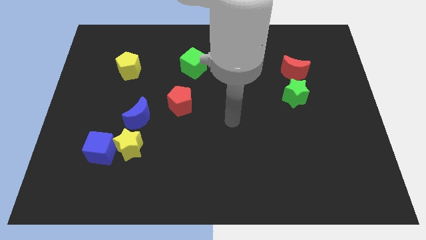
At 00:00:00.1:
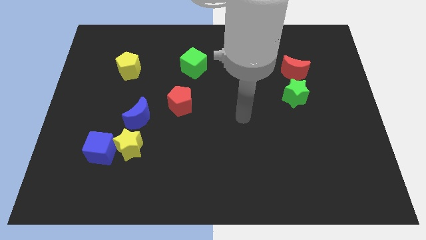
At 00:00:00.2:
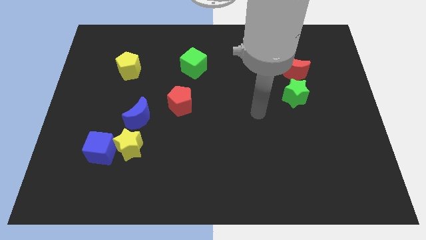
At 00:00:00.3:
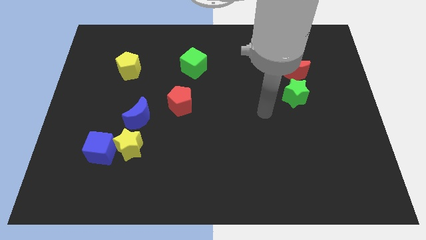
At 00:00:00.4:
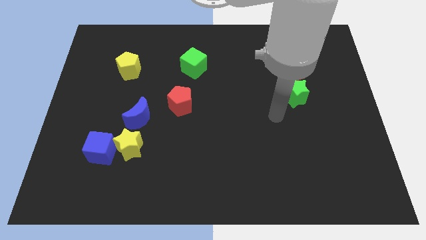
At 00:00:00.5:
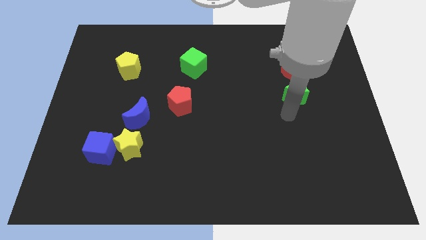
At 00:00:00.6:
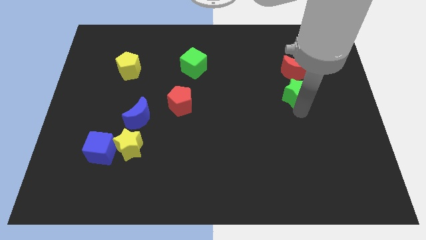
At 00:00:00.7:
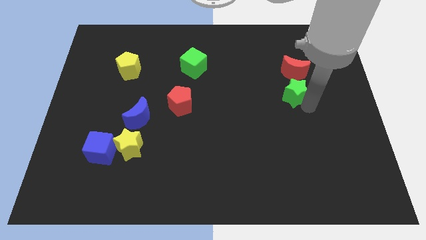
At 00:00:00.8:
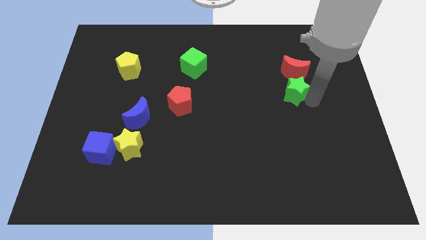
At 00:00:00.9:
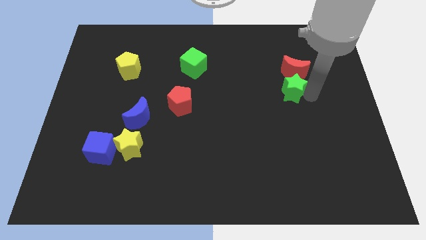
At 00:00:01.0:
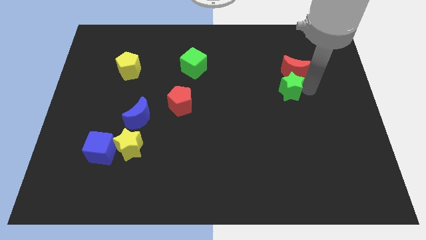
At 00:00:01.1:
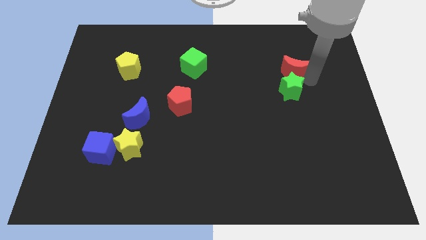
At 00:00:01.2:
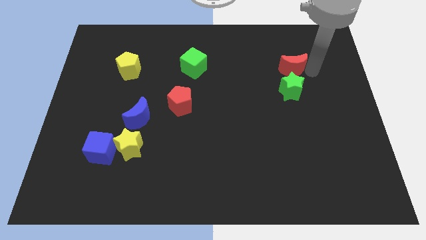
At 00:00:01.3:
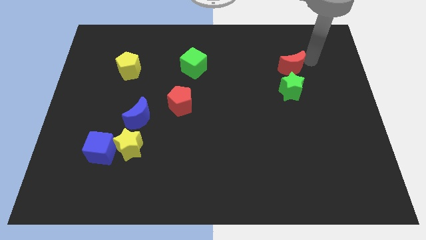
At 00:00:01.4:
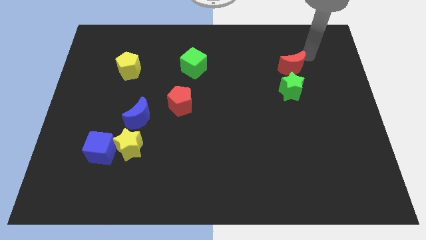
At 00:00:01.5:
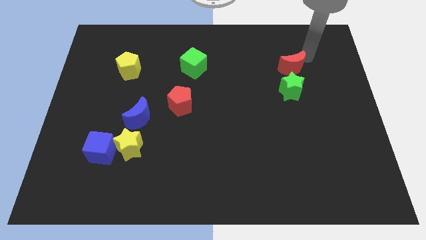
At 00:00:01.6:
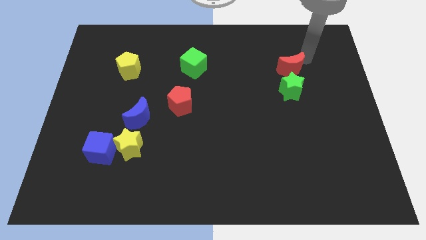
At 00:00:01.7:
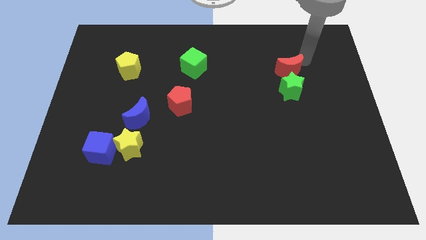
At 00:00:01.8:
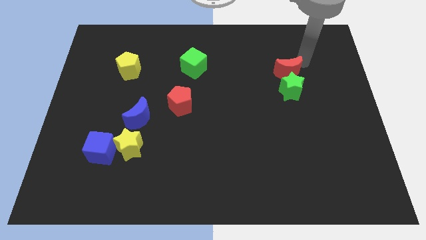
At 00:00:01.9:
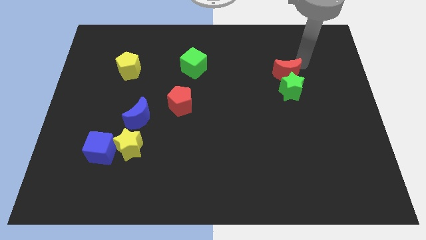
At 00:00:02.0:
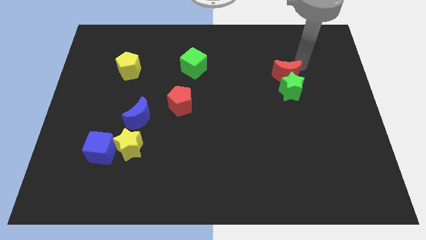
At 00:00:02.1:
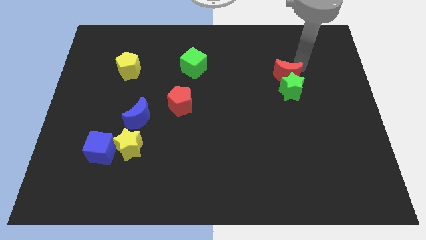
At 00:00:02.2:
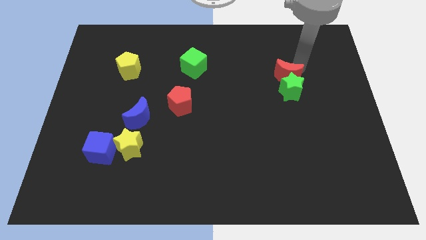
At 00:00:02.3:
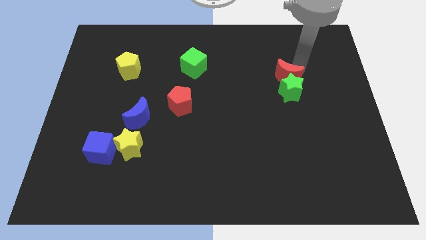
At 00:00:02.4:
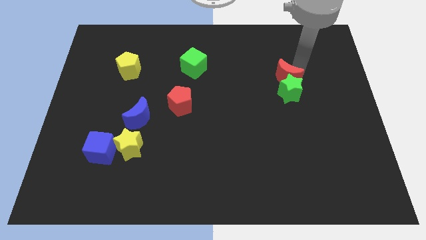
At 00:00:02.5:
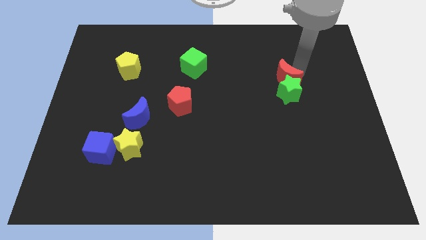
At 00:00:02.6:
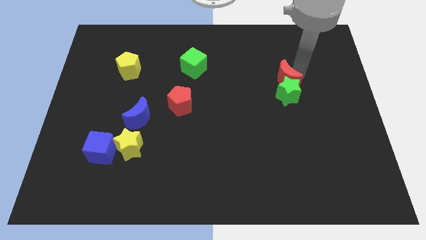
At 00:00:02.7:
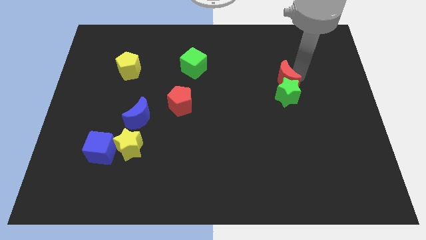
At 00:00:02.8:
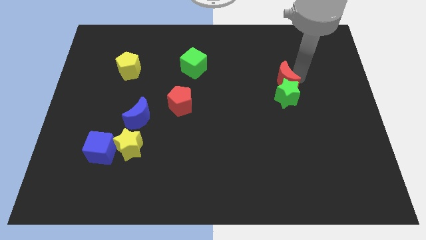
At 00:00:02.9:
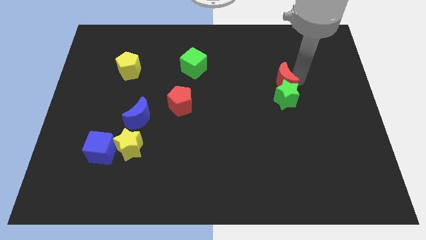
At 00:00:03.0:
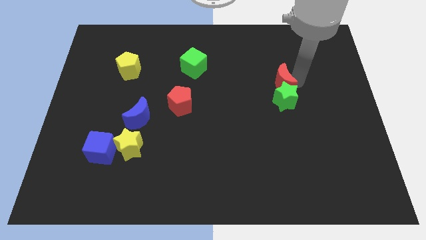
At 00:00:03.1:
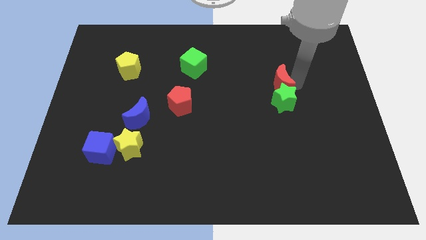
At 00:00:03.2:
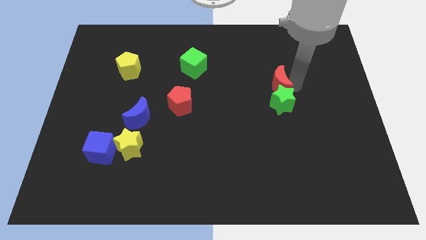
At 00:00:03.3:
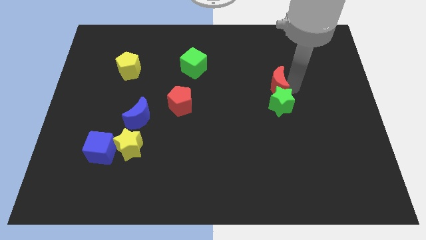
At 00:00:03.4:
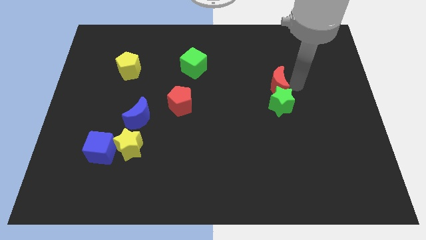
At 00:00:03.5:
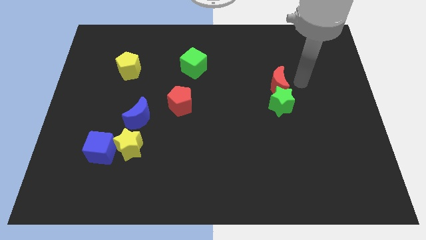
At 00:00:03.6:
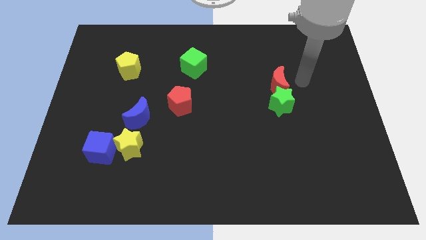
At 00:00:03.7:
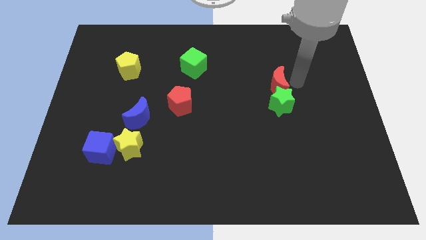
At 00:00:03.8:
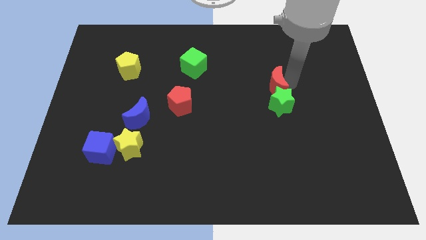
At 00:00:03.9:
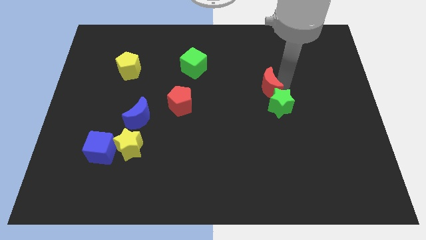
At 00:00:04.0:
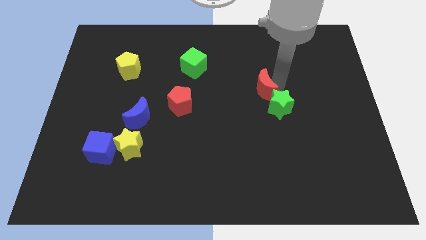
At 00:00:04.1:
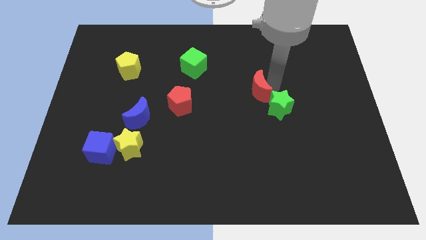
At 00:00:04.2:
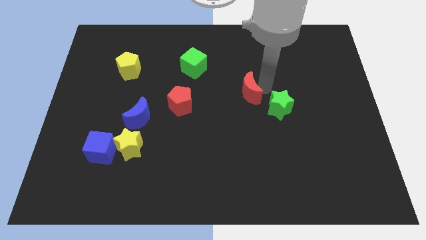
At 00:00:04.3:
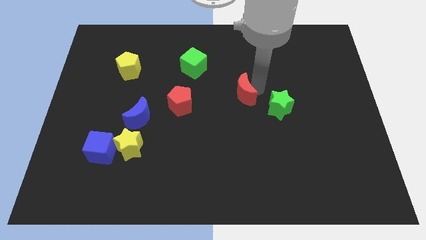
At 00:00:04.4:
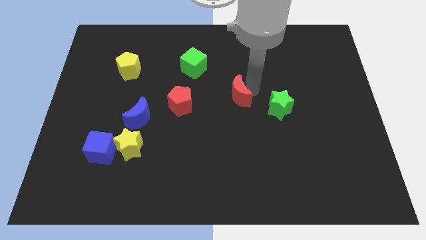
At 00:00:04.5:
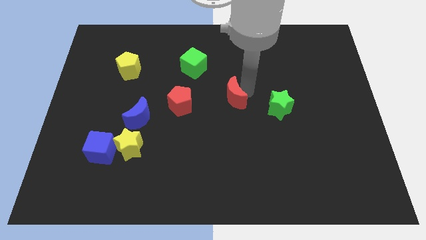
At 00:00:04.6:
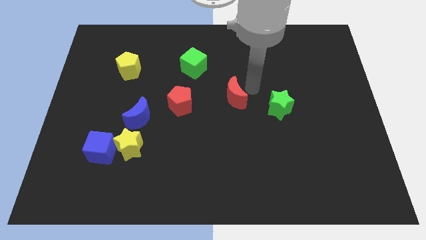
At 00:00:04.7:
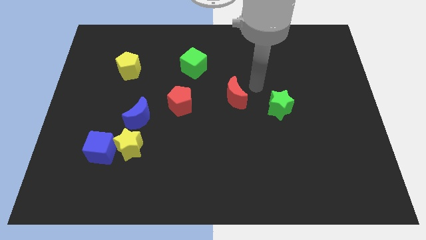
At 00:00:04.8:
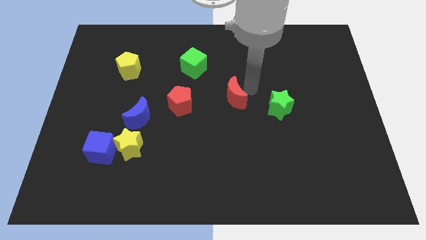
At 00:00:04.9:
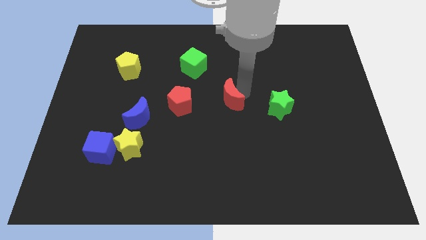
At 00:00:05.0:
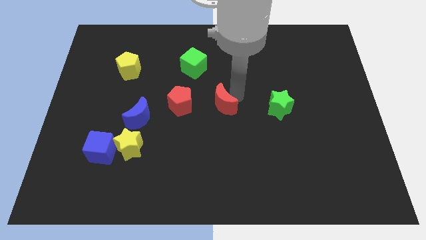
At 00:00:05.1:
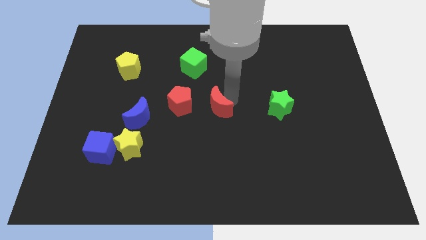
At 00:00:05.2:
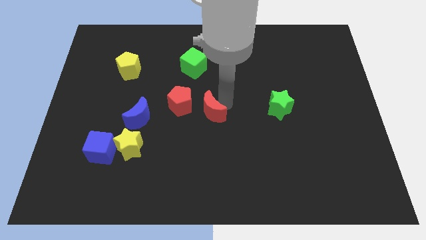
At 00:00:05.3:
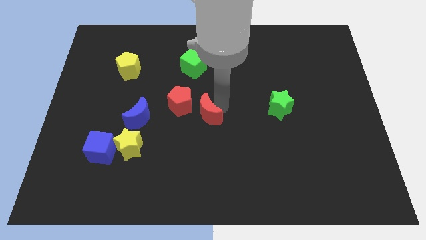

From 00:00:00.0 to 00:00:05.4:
move the red moon right of the blue moon

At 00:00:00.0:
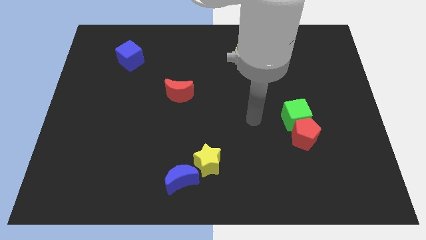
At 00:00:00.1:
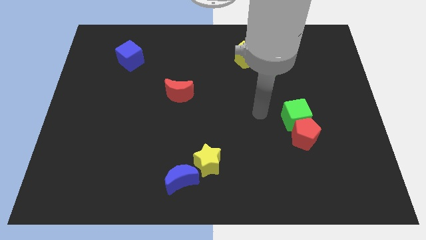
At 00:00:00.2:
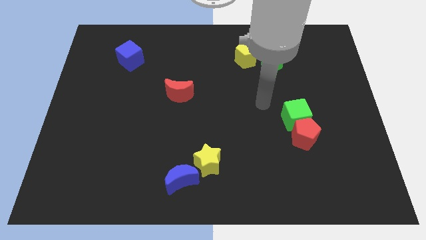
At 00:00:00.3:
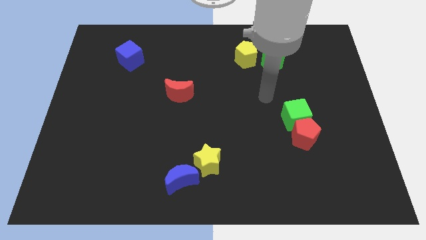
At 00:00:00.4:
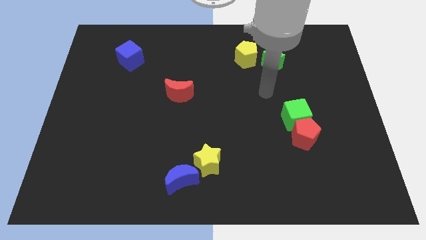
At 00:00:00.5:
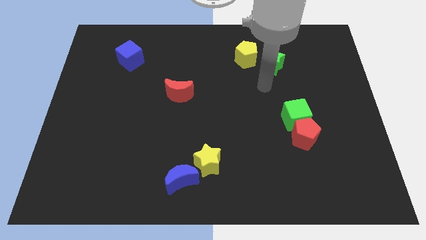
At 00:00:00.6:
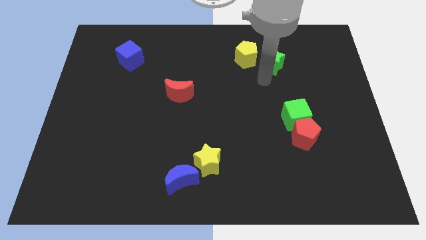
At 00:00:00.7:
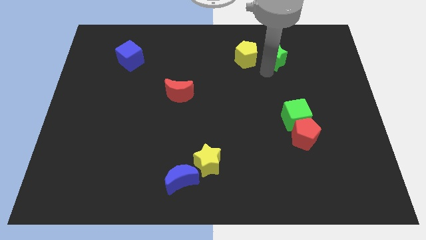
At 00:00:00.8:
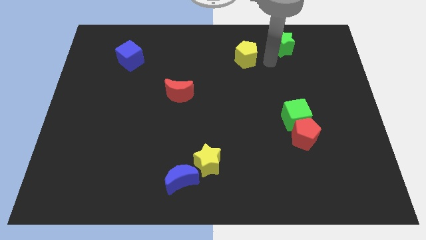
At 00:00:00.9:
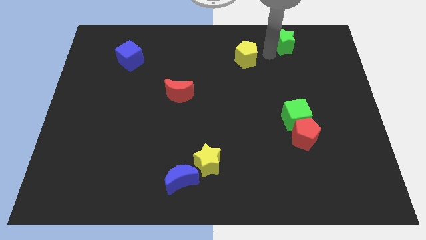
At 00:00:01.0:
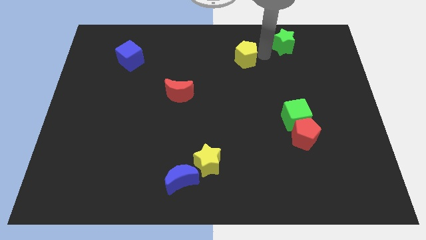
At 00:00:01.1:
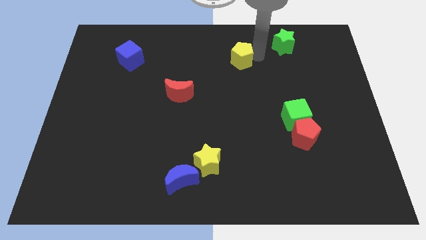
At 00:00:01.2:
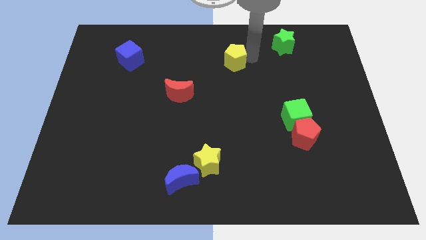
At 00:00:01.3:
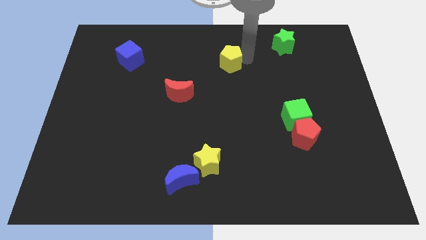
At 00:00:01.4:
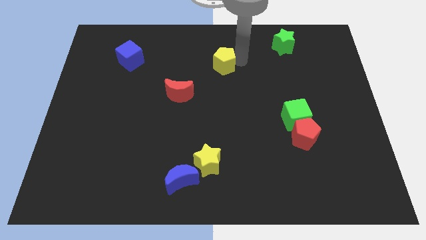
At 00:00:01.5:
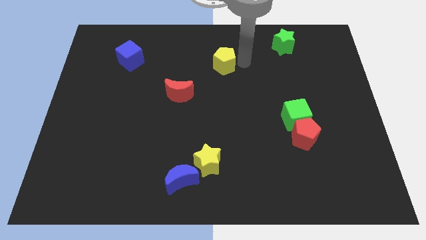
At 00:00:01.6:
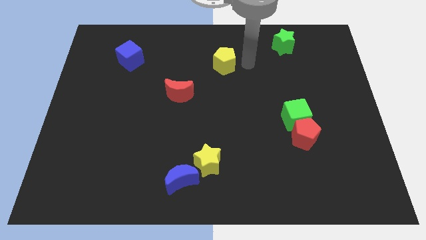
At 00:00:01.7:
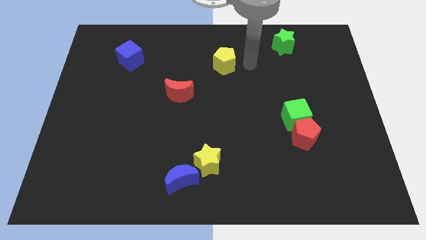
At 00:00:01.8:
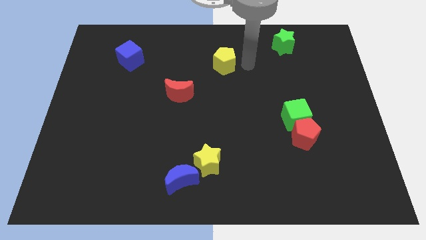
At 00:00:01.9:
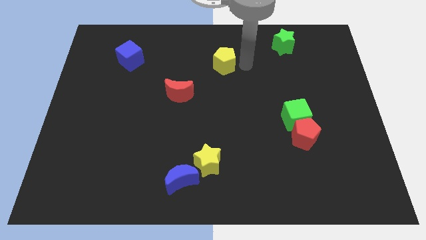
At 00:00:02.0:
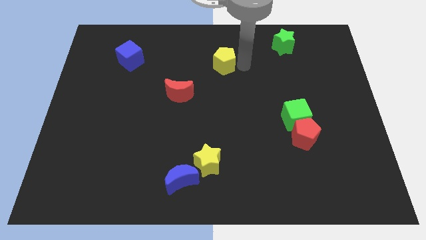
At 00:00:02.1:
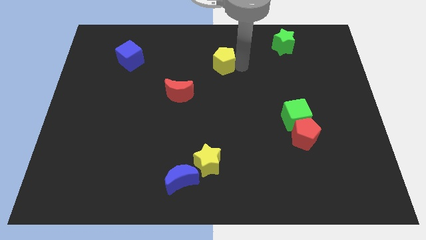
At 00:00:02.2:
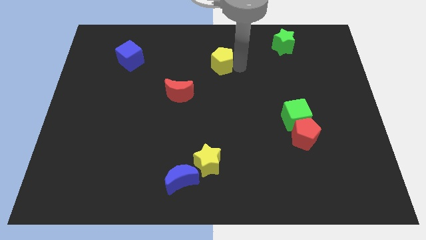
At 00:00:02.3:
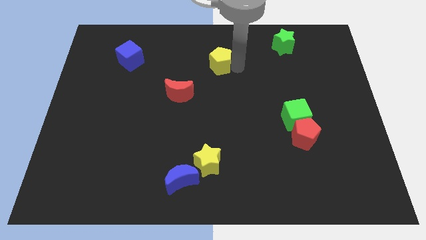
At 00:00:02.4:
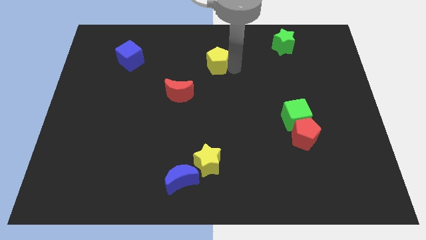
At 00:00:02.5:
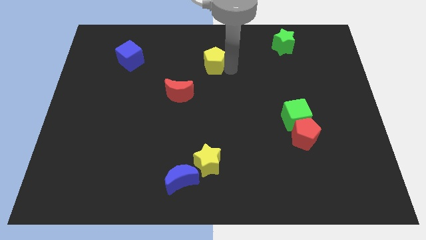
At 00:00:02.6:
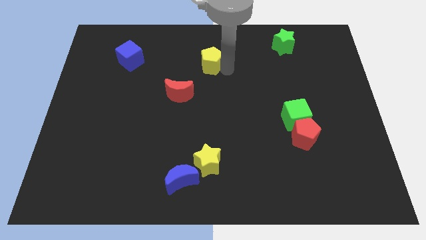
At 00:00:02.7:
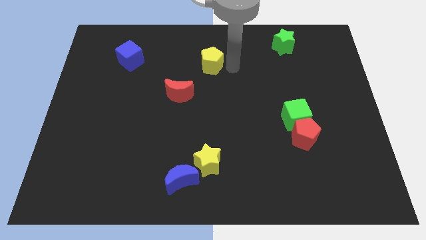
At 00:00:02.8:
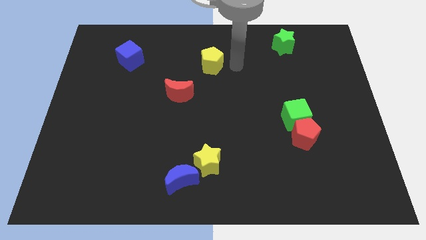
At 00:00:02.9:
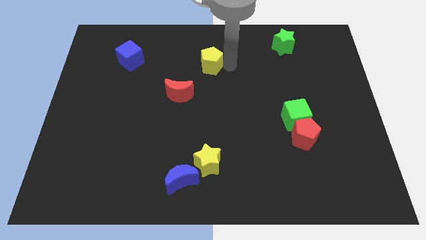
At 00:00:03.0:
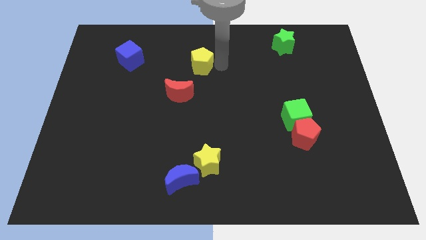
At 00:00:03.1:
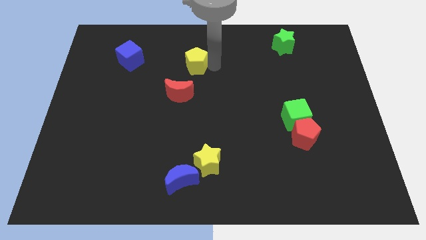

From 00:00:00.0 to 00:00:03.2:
put the yellow pentagon above the red moon
